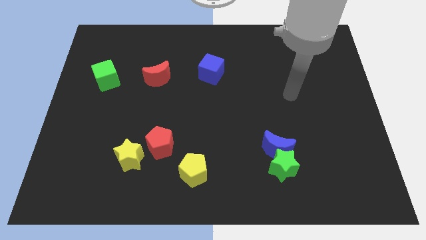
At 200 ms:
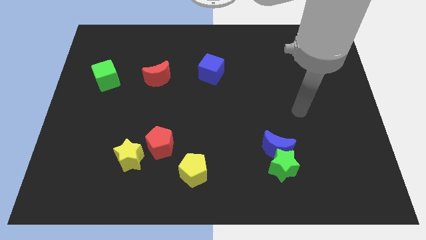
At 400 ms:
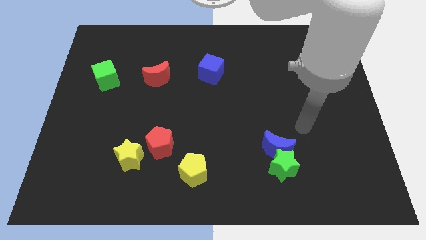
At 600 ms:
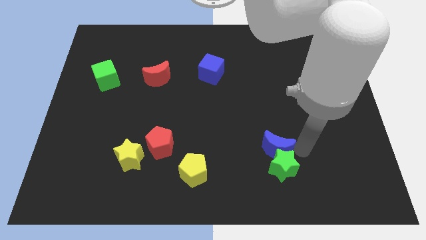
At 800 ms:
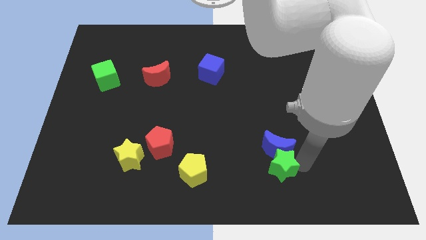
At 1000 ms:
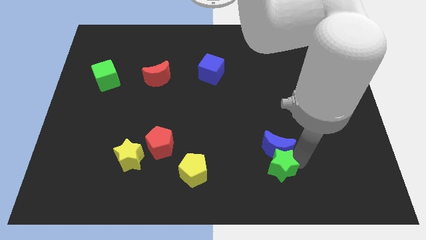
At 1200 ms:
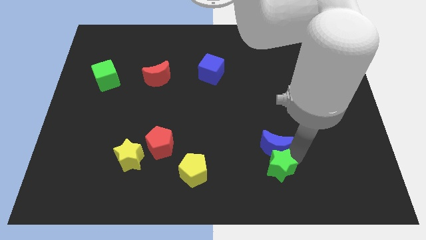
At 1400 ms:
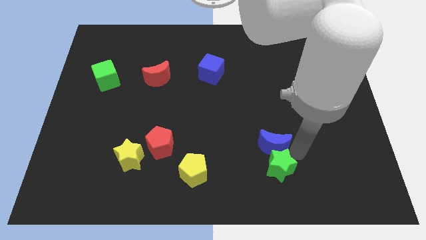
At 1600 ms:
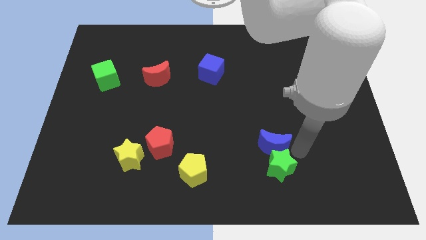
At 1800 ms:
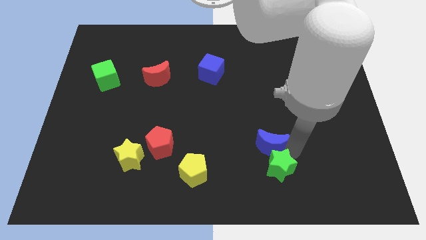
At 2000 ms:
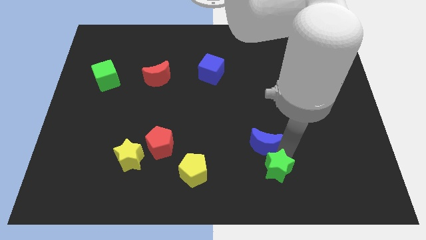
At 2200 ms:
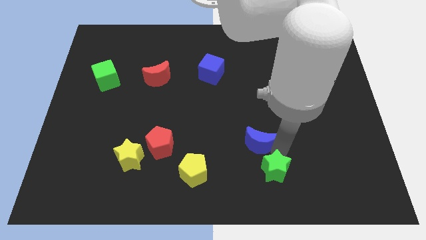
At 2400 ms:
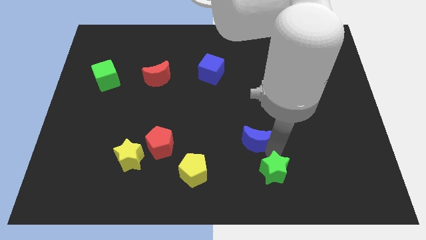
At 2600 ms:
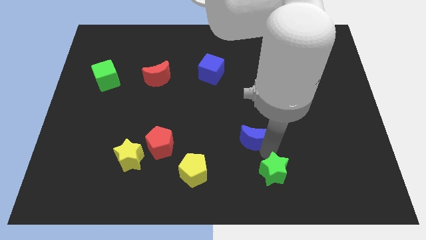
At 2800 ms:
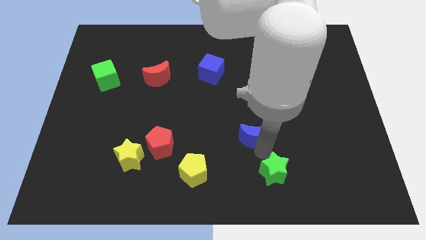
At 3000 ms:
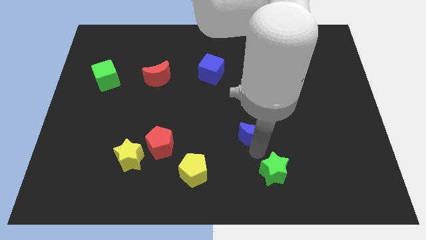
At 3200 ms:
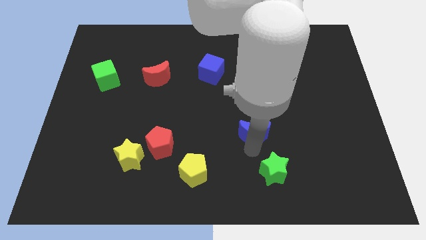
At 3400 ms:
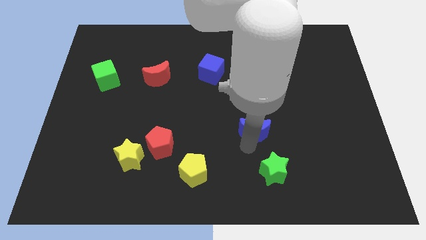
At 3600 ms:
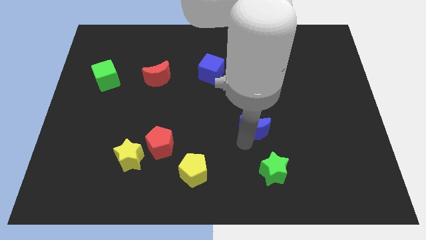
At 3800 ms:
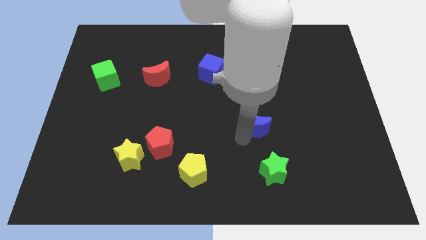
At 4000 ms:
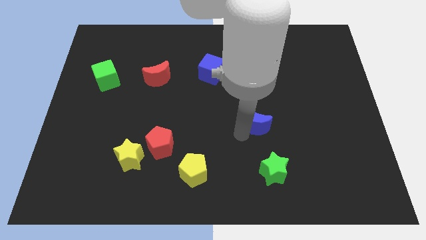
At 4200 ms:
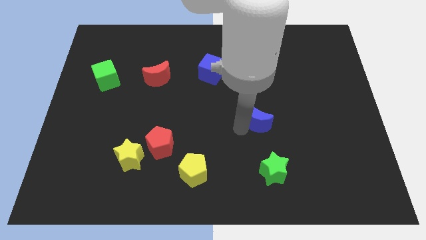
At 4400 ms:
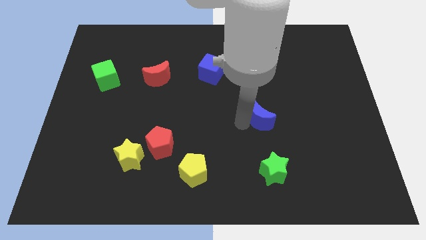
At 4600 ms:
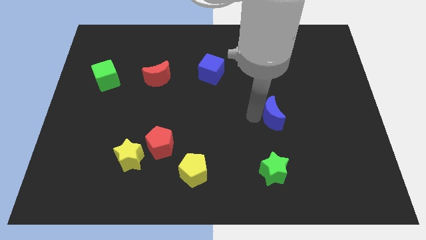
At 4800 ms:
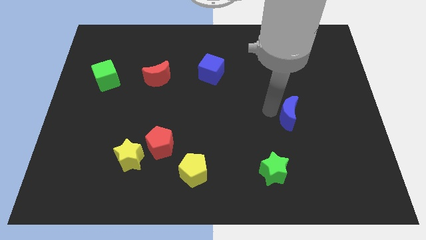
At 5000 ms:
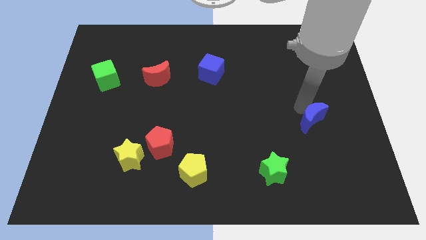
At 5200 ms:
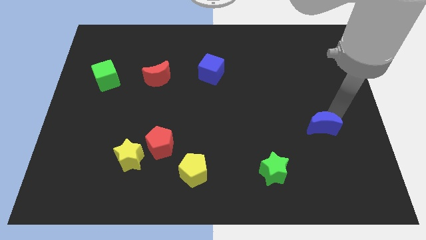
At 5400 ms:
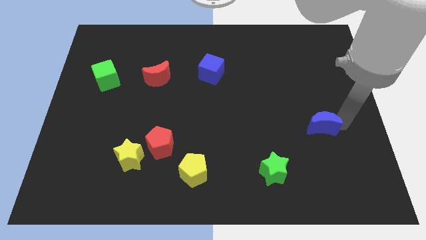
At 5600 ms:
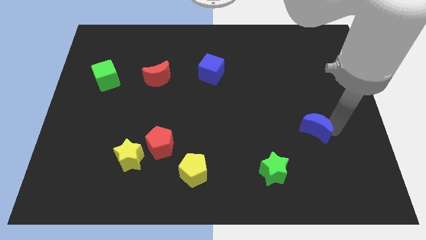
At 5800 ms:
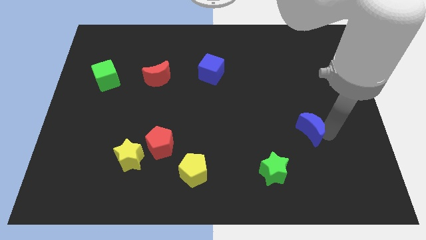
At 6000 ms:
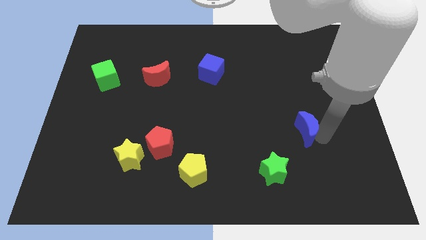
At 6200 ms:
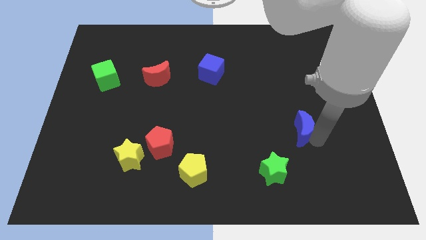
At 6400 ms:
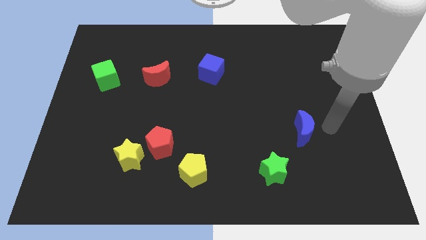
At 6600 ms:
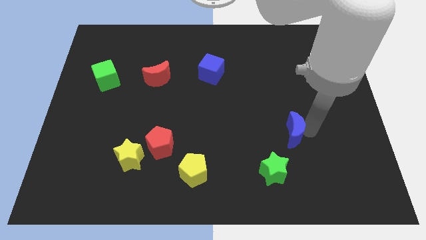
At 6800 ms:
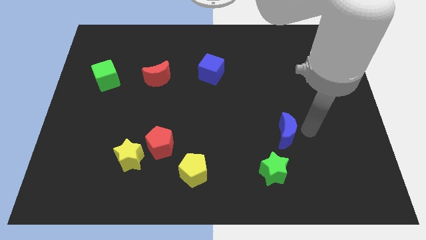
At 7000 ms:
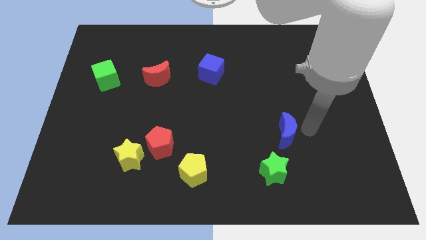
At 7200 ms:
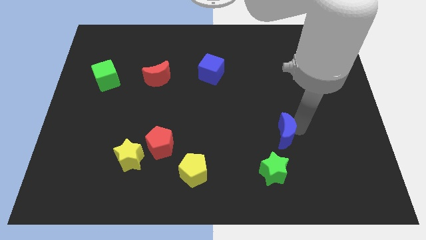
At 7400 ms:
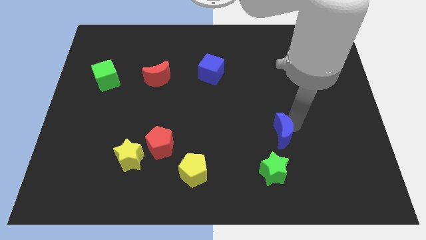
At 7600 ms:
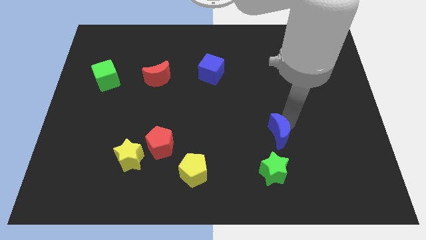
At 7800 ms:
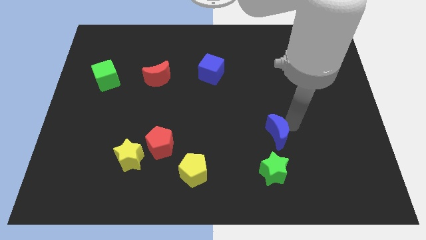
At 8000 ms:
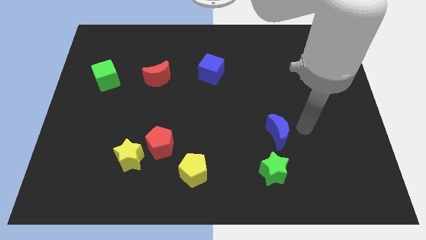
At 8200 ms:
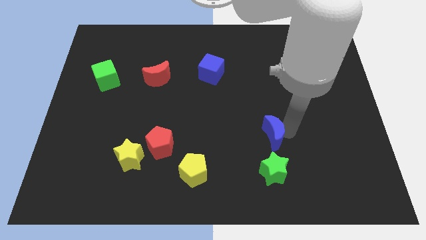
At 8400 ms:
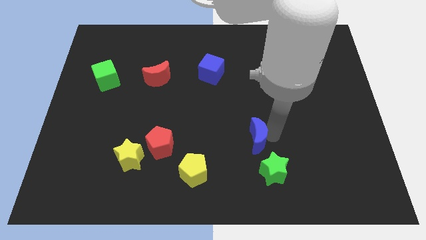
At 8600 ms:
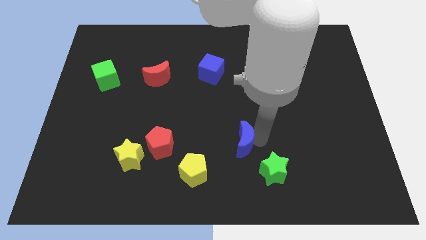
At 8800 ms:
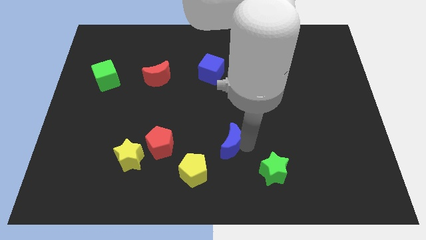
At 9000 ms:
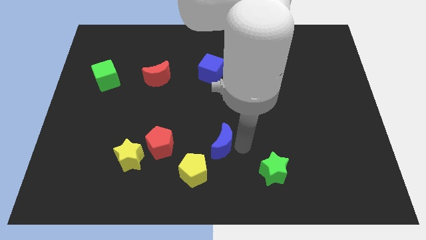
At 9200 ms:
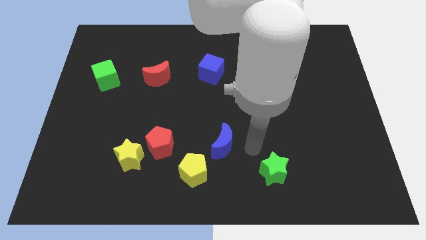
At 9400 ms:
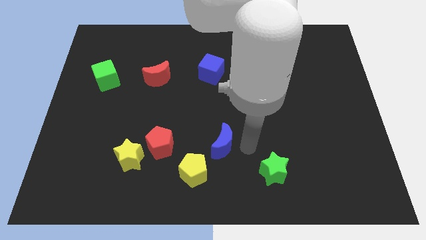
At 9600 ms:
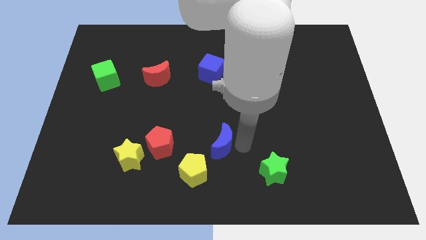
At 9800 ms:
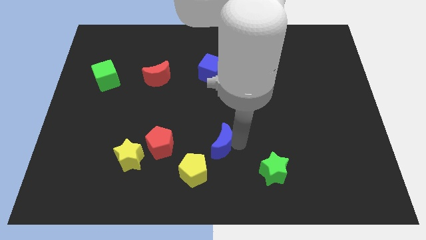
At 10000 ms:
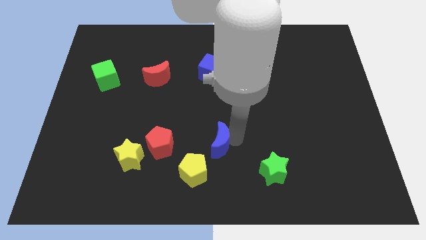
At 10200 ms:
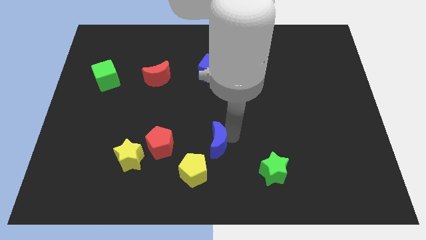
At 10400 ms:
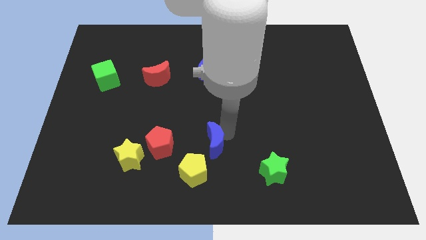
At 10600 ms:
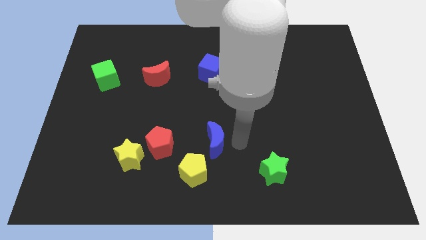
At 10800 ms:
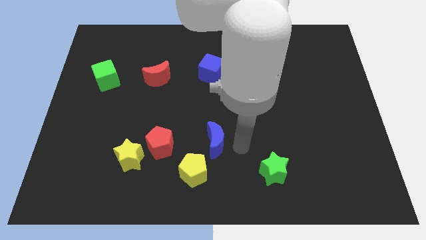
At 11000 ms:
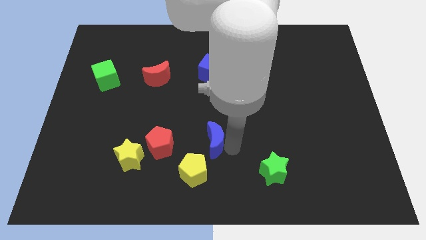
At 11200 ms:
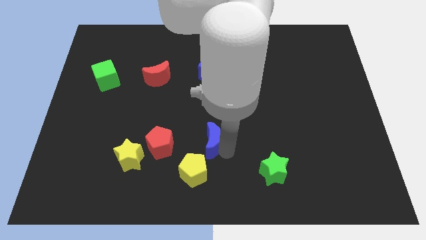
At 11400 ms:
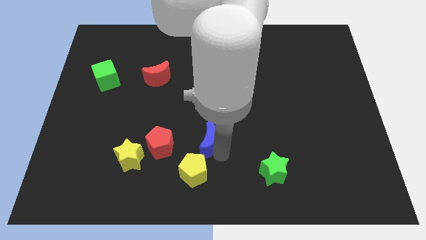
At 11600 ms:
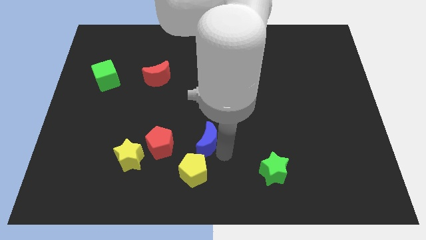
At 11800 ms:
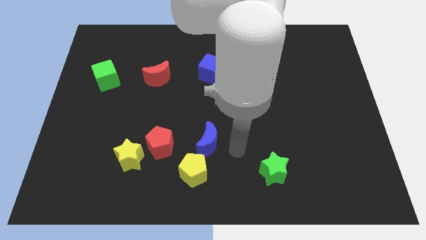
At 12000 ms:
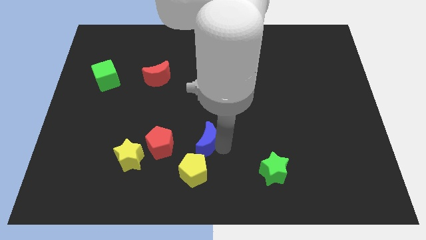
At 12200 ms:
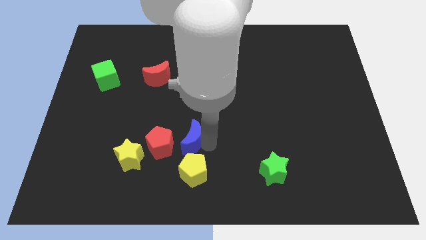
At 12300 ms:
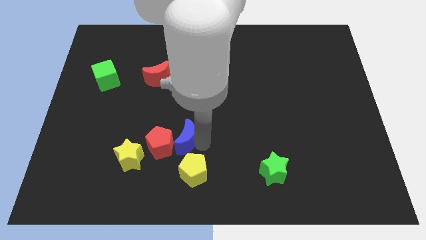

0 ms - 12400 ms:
put the blue moon to the red pentagon

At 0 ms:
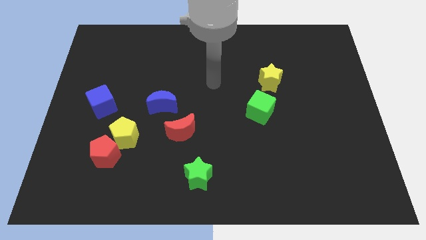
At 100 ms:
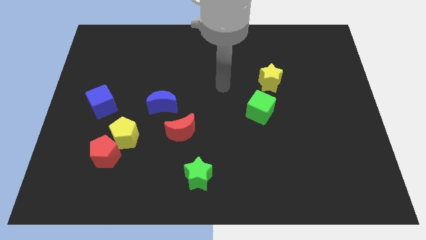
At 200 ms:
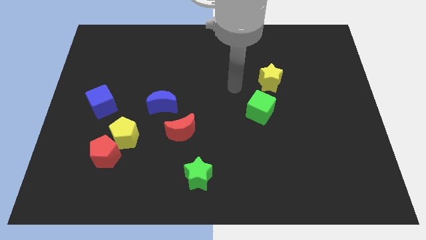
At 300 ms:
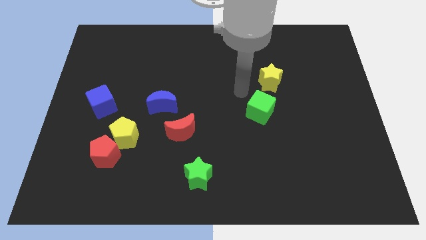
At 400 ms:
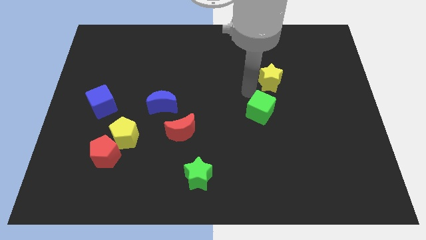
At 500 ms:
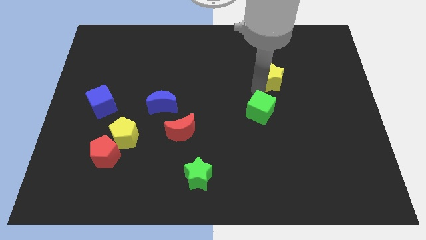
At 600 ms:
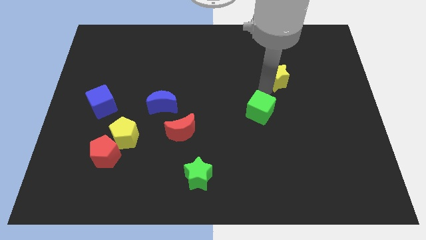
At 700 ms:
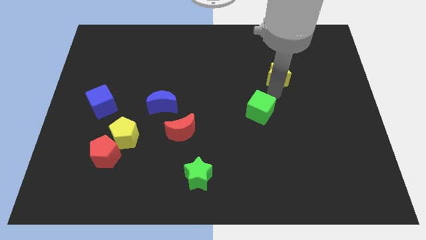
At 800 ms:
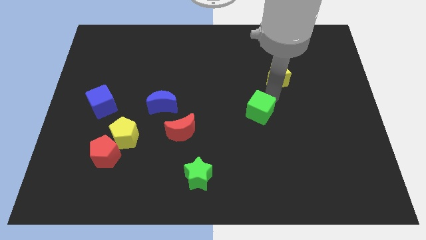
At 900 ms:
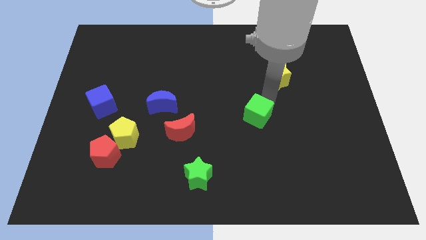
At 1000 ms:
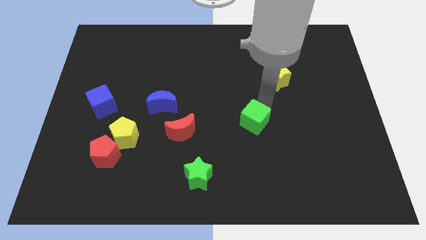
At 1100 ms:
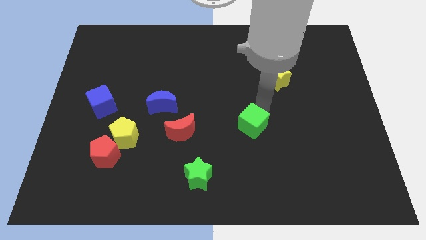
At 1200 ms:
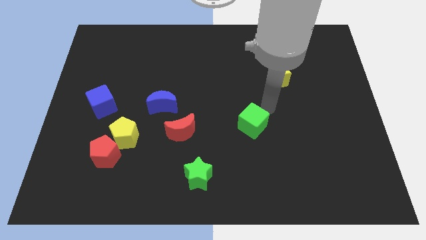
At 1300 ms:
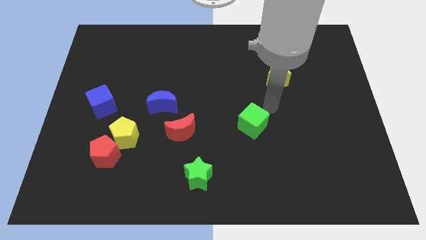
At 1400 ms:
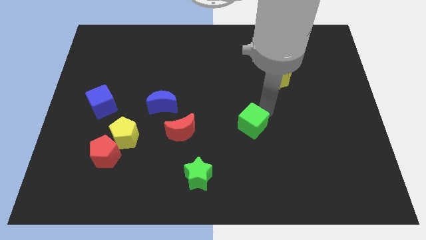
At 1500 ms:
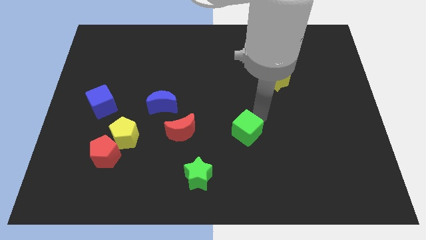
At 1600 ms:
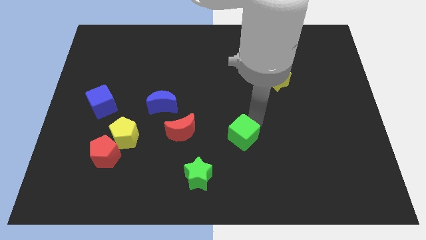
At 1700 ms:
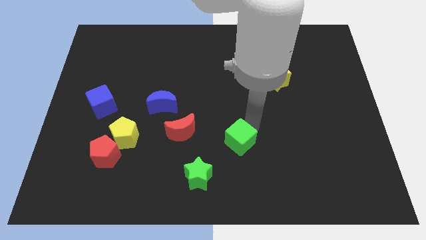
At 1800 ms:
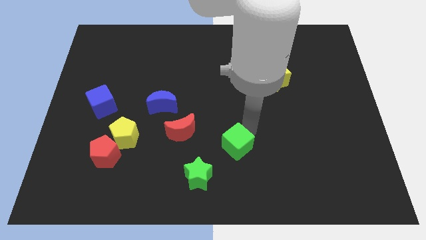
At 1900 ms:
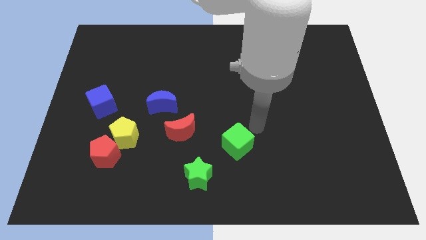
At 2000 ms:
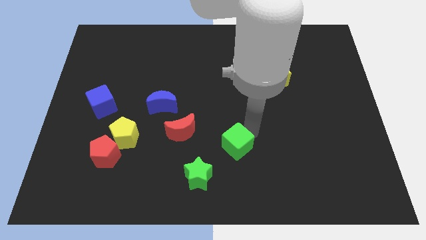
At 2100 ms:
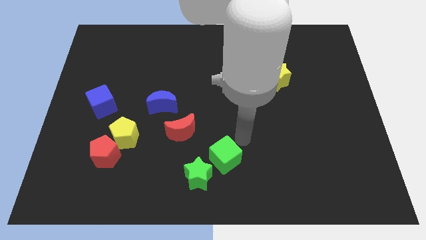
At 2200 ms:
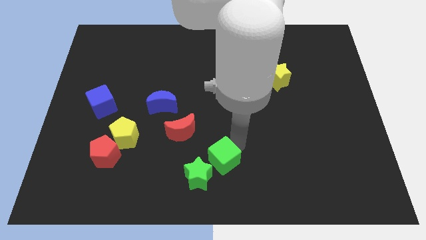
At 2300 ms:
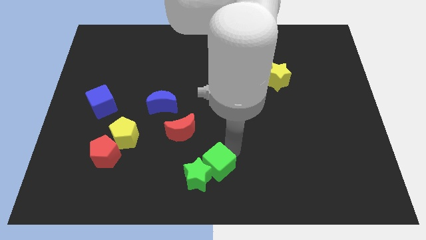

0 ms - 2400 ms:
move the green cube next to the green star
